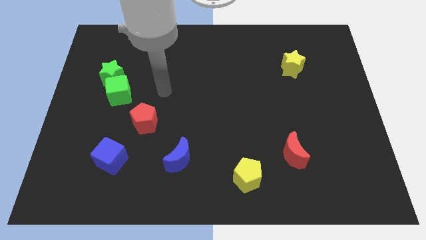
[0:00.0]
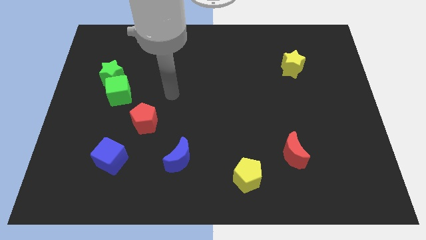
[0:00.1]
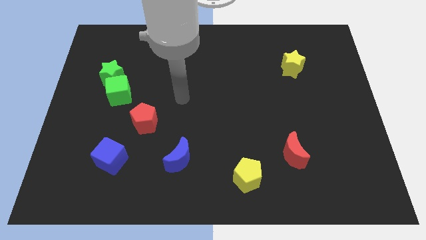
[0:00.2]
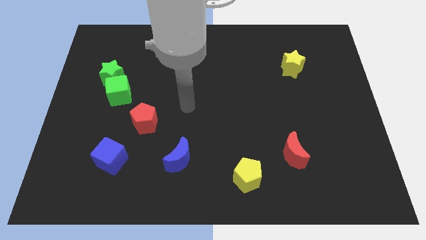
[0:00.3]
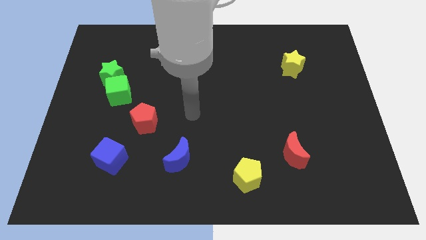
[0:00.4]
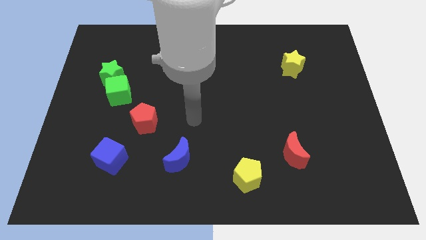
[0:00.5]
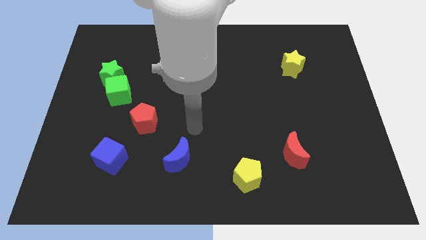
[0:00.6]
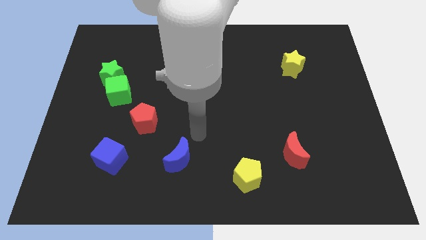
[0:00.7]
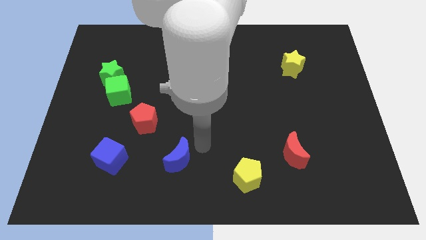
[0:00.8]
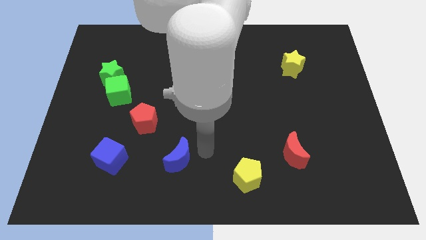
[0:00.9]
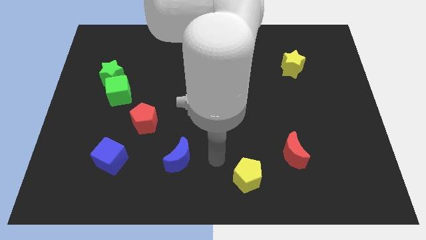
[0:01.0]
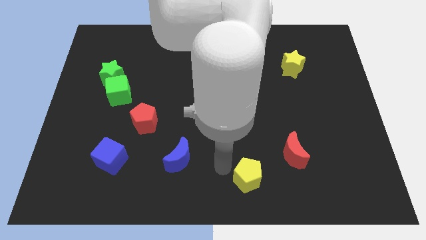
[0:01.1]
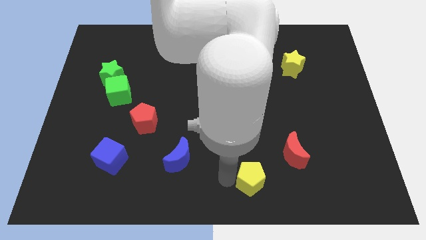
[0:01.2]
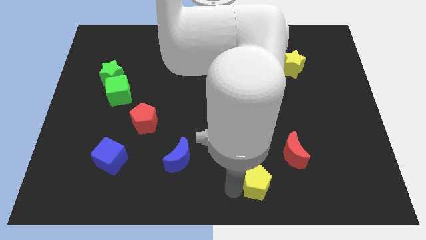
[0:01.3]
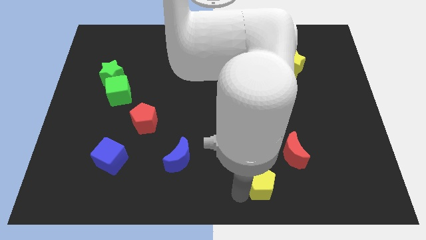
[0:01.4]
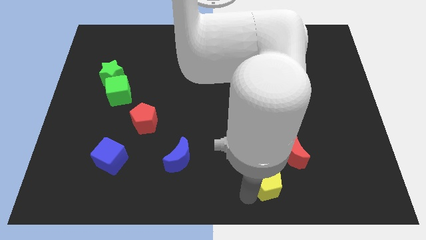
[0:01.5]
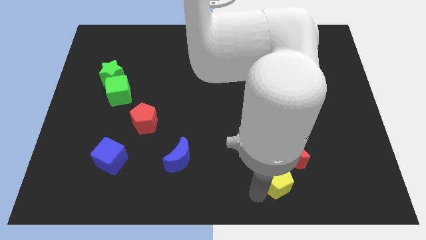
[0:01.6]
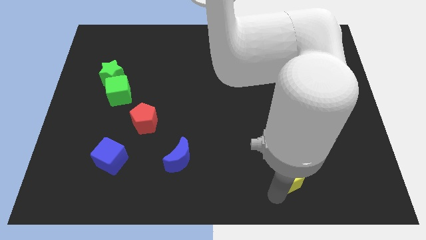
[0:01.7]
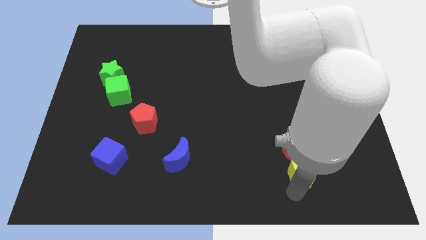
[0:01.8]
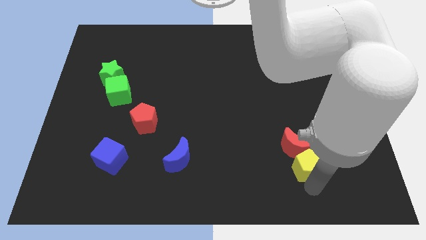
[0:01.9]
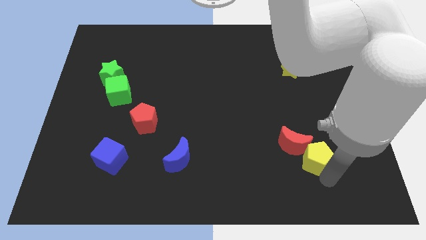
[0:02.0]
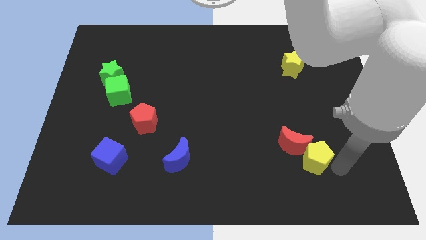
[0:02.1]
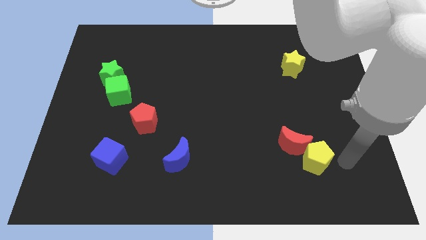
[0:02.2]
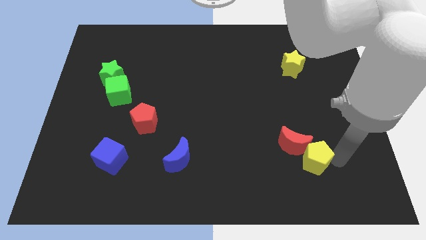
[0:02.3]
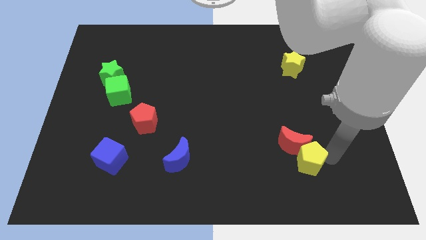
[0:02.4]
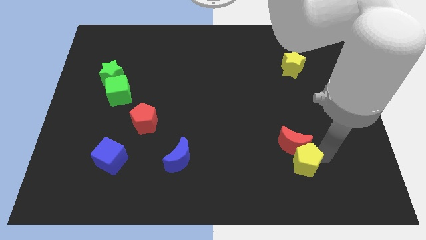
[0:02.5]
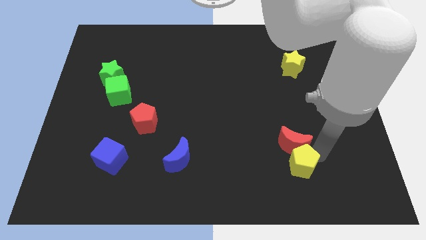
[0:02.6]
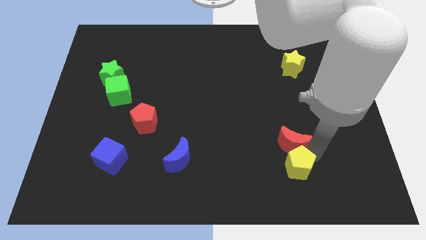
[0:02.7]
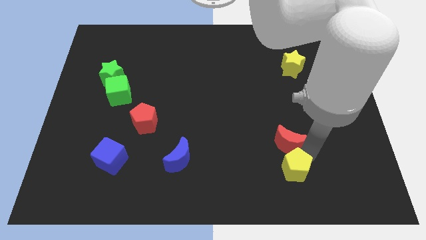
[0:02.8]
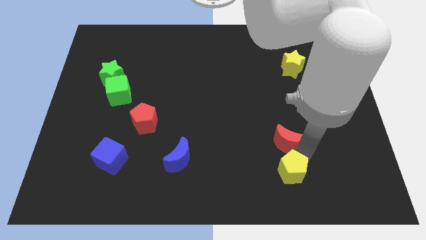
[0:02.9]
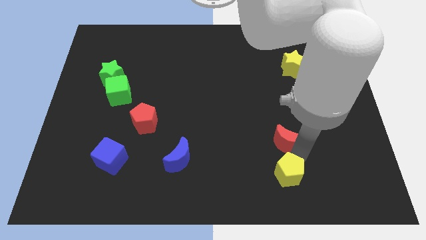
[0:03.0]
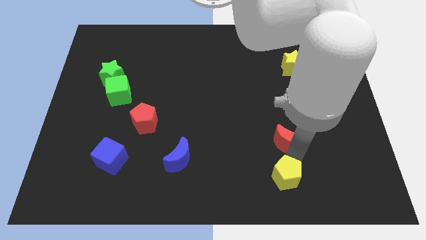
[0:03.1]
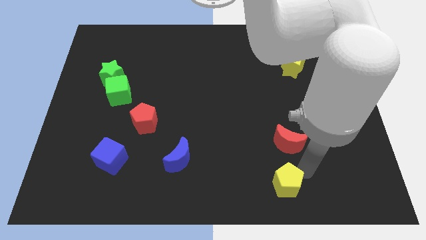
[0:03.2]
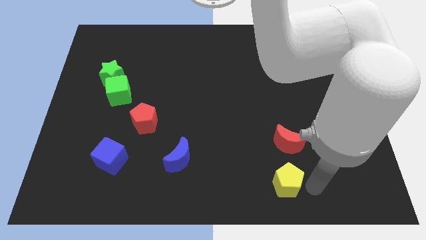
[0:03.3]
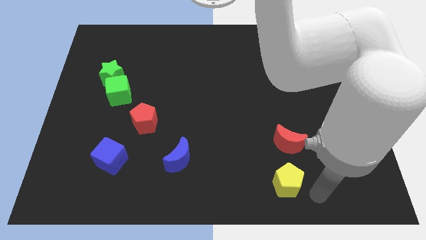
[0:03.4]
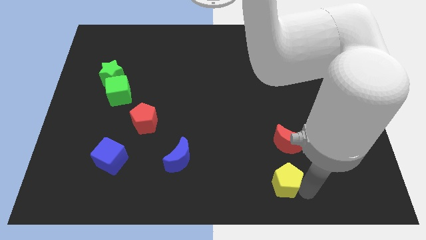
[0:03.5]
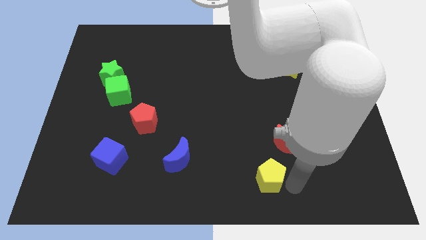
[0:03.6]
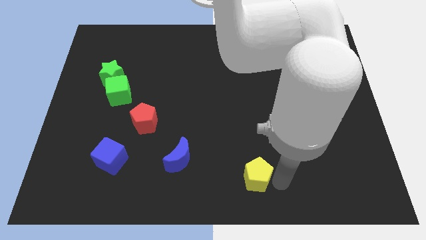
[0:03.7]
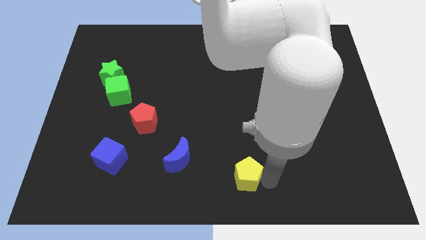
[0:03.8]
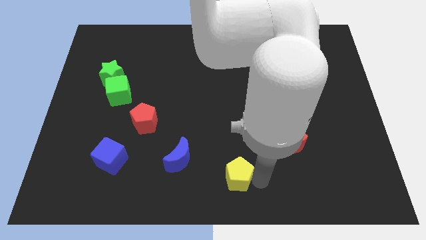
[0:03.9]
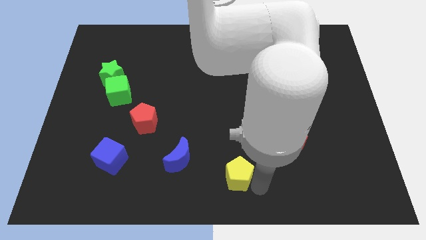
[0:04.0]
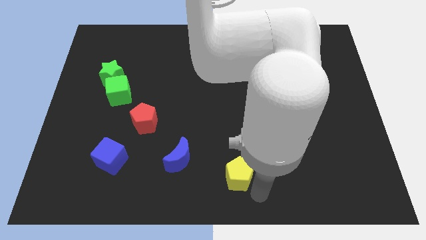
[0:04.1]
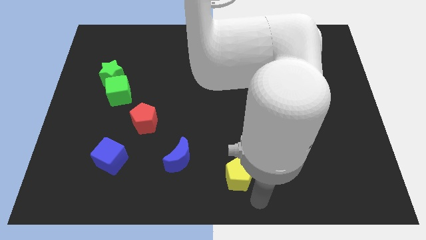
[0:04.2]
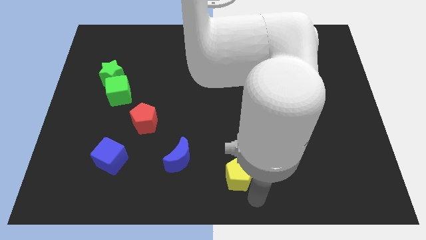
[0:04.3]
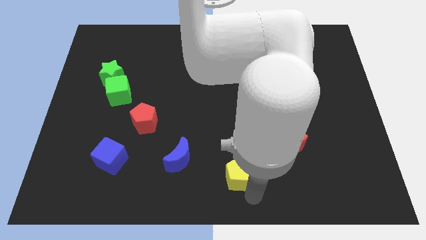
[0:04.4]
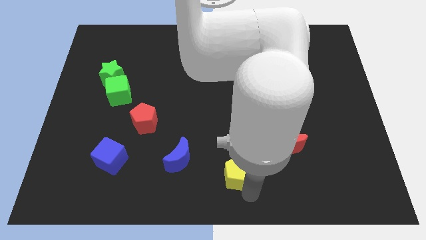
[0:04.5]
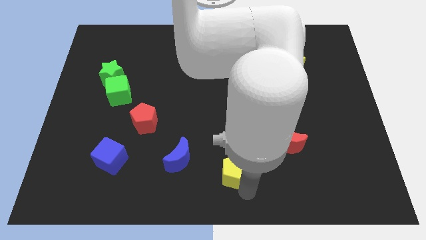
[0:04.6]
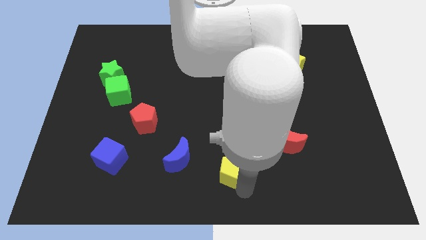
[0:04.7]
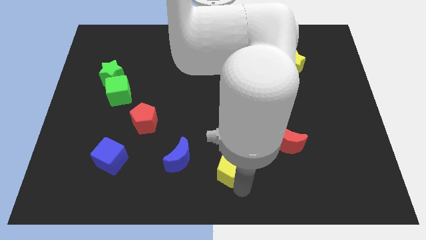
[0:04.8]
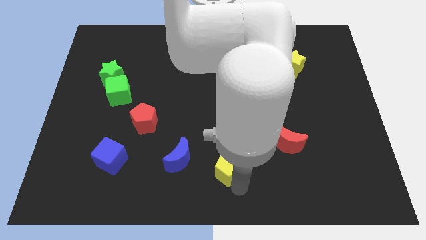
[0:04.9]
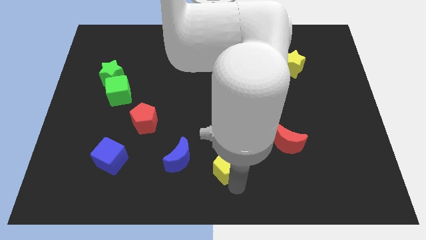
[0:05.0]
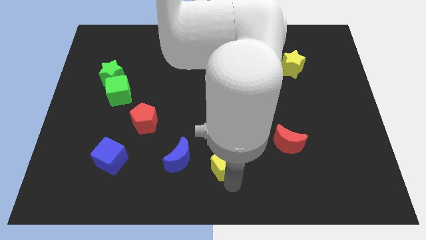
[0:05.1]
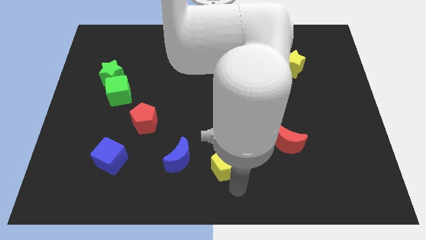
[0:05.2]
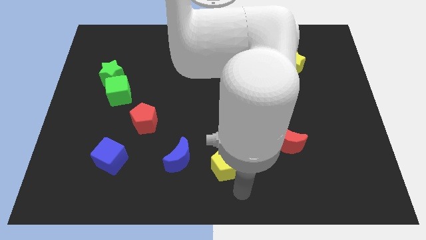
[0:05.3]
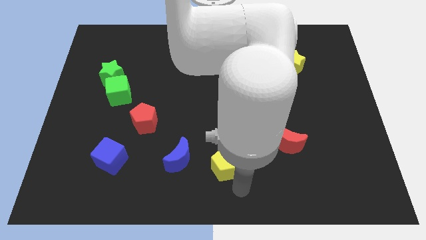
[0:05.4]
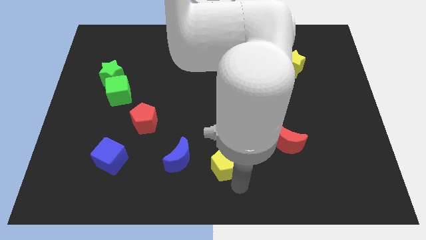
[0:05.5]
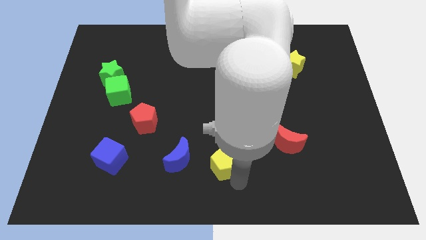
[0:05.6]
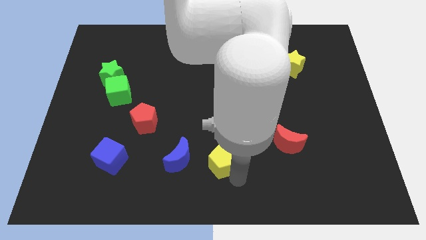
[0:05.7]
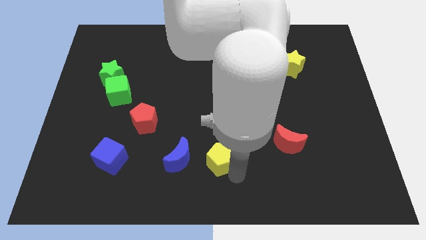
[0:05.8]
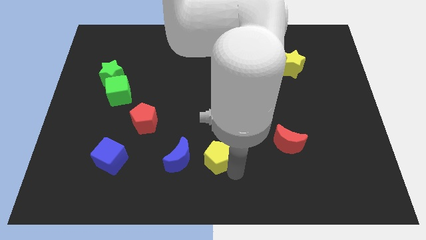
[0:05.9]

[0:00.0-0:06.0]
push the yellow pentagon a little bit diagonally upwards and to the left

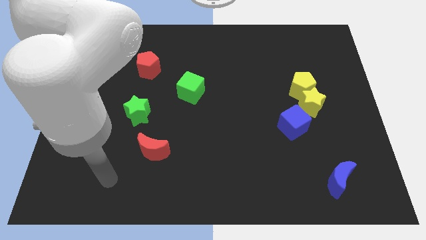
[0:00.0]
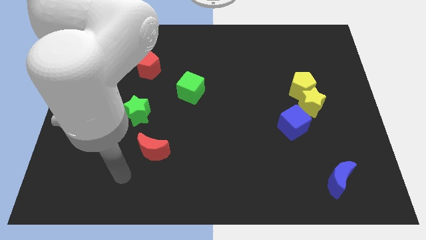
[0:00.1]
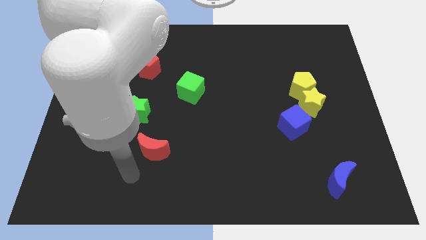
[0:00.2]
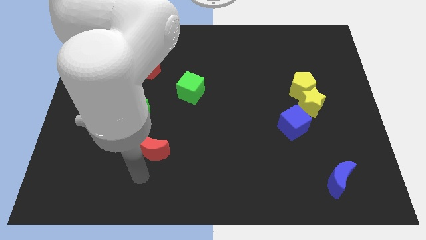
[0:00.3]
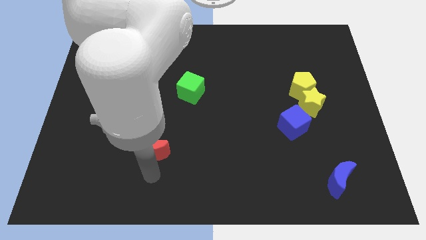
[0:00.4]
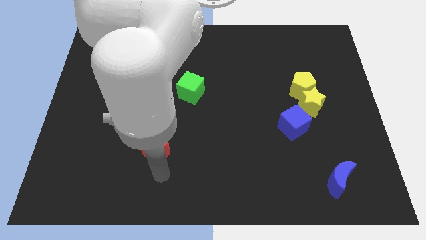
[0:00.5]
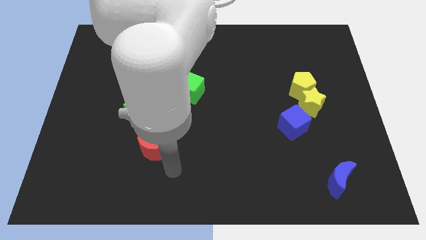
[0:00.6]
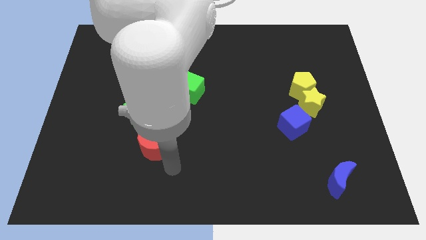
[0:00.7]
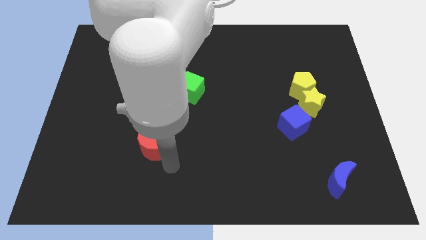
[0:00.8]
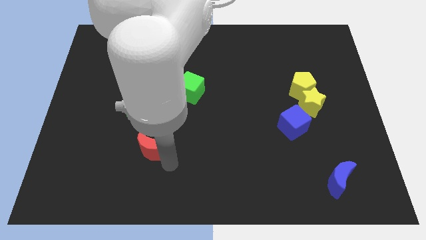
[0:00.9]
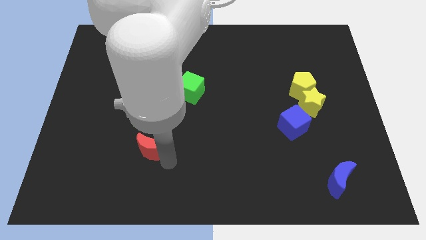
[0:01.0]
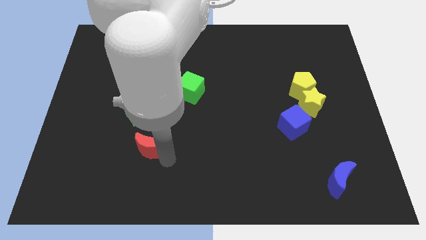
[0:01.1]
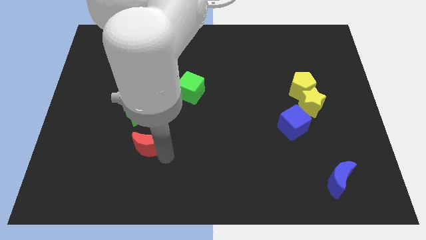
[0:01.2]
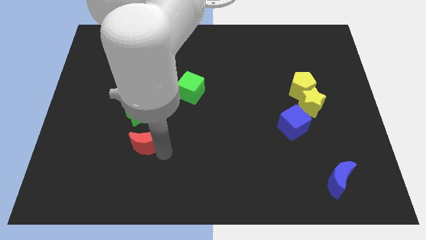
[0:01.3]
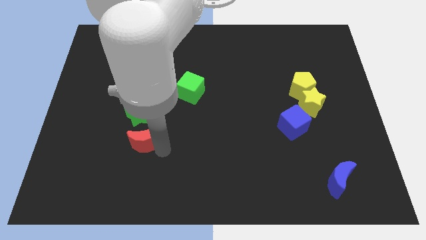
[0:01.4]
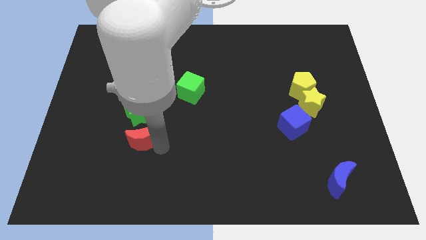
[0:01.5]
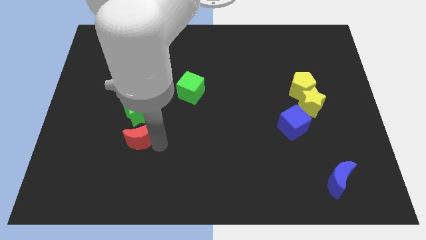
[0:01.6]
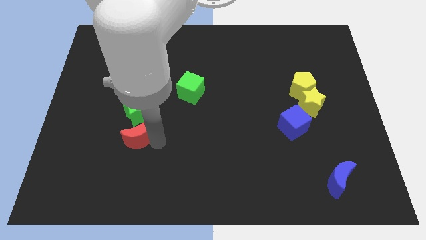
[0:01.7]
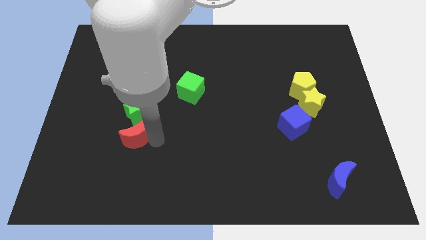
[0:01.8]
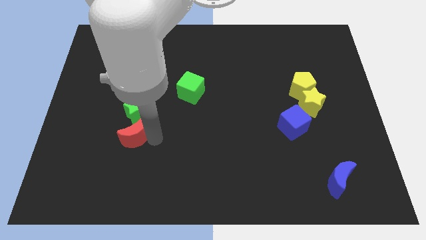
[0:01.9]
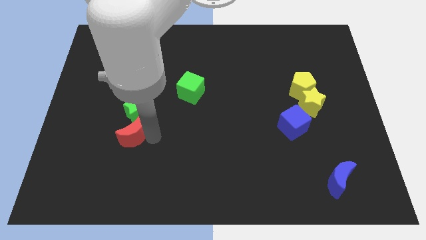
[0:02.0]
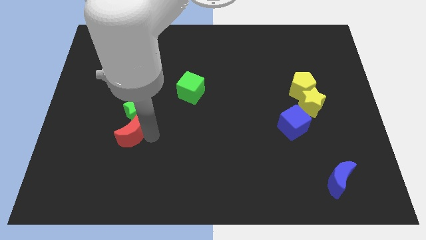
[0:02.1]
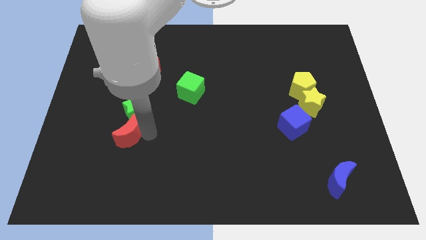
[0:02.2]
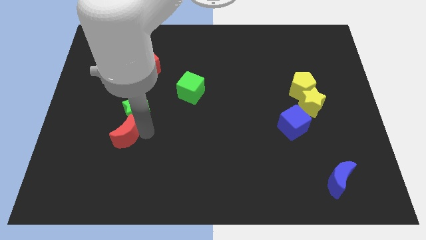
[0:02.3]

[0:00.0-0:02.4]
push the red moon diagonally up and to the left a little

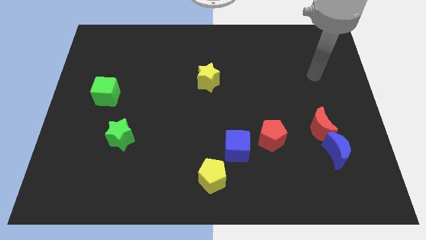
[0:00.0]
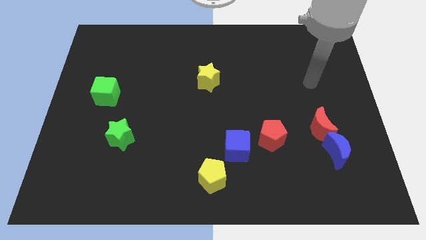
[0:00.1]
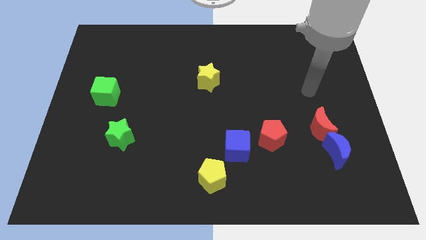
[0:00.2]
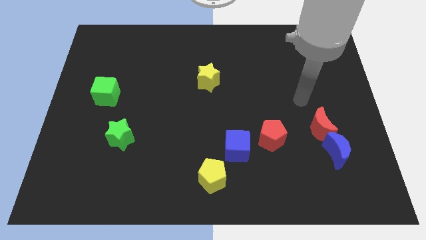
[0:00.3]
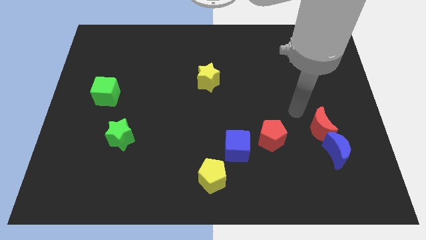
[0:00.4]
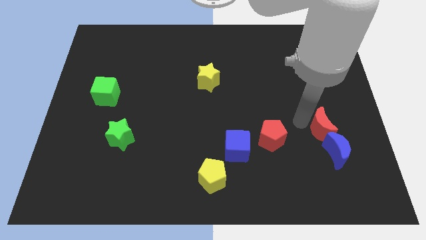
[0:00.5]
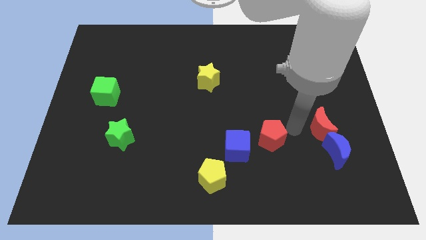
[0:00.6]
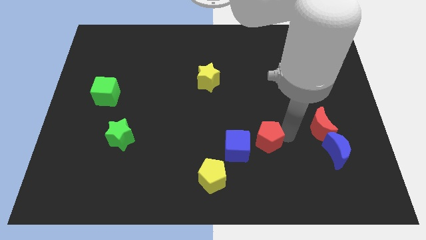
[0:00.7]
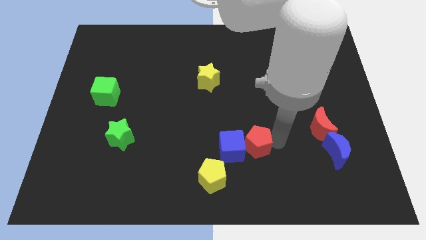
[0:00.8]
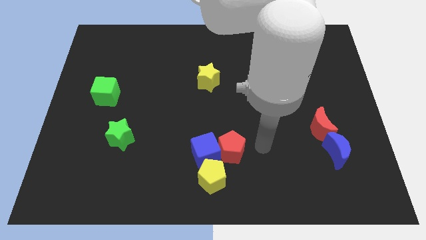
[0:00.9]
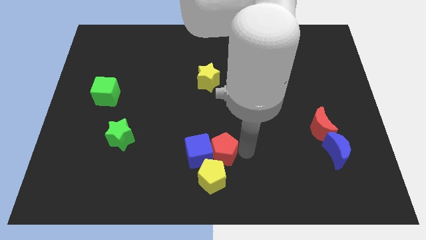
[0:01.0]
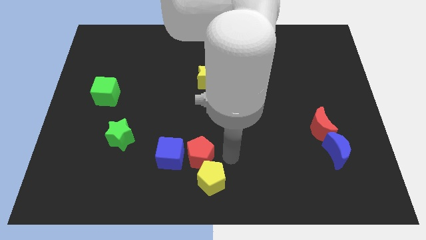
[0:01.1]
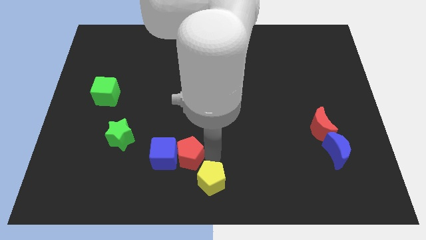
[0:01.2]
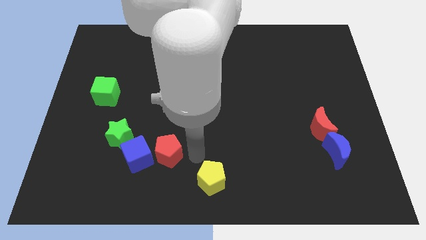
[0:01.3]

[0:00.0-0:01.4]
push the blue cube left
